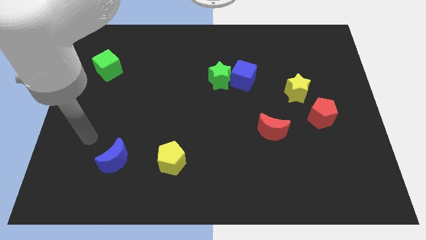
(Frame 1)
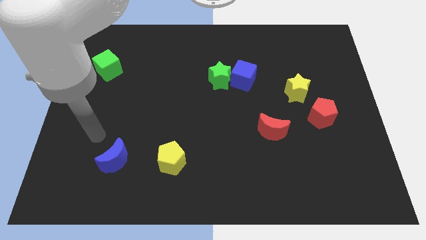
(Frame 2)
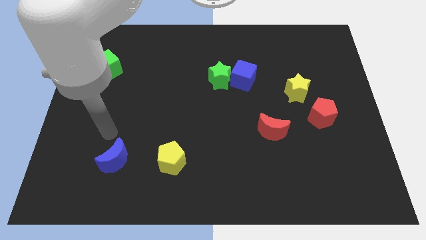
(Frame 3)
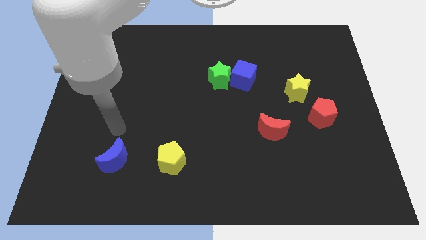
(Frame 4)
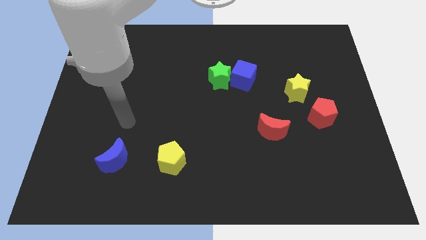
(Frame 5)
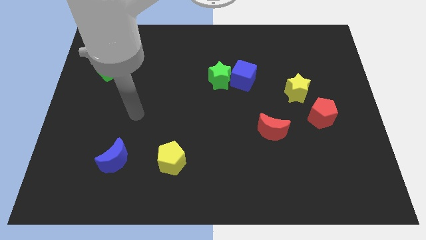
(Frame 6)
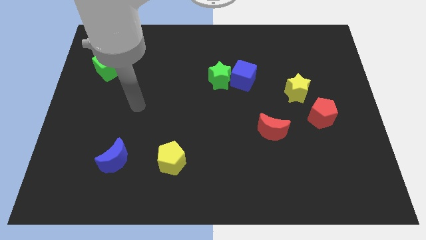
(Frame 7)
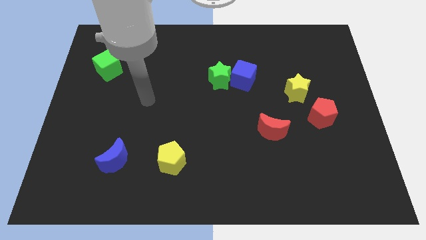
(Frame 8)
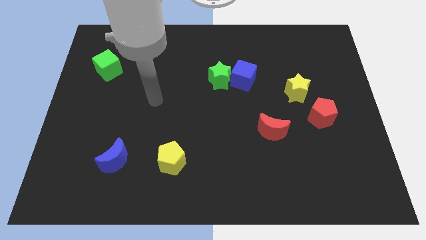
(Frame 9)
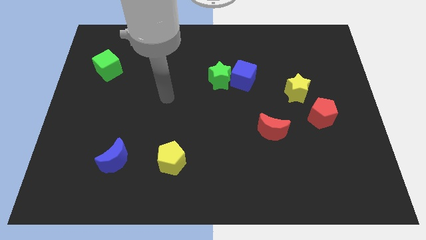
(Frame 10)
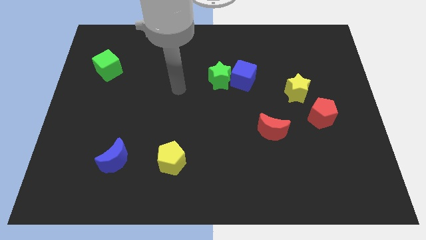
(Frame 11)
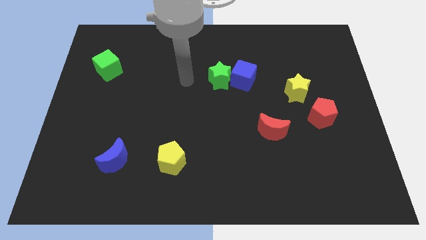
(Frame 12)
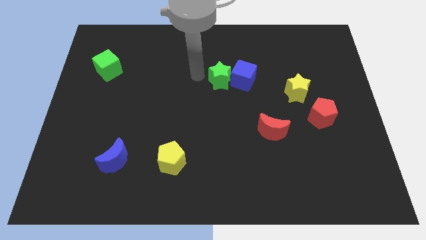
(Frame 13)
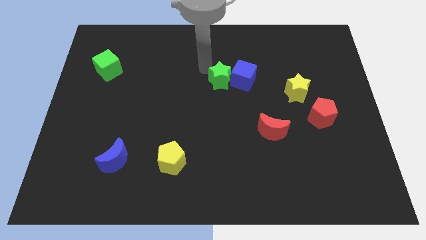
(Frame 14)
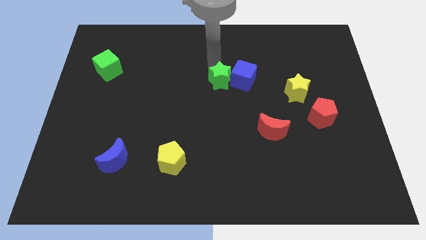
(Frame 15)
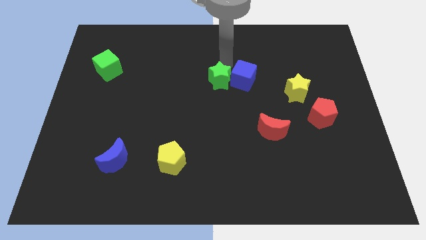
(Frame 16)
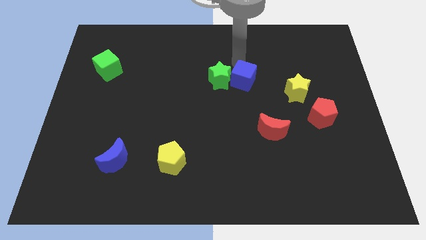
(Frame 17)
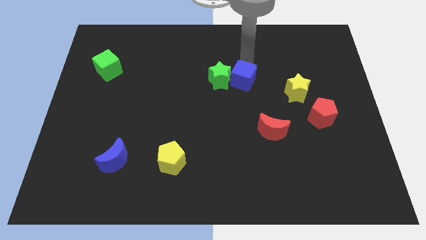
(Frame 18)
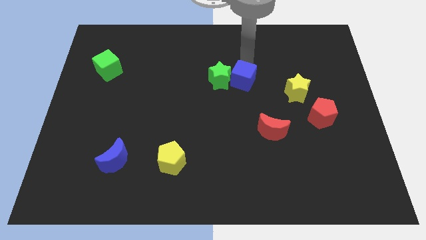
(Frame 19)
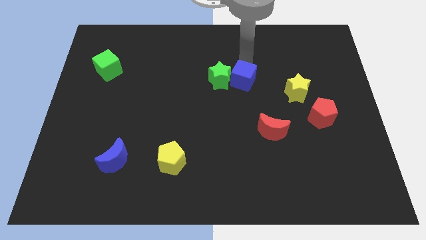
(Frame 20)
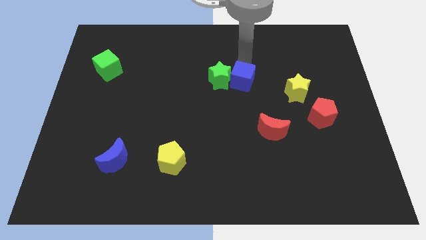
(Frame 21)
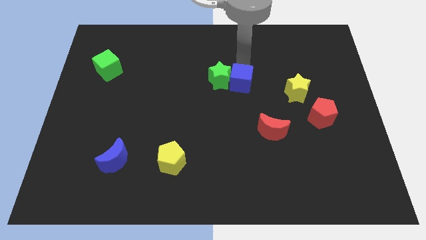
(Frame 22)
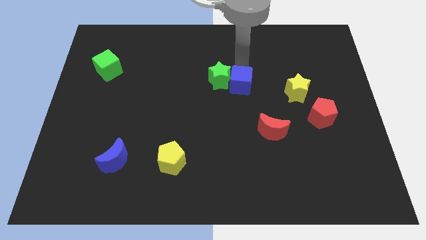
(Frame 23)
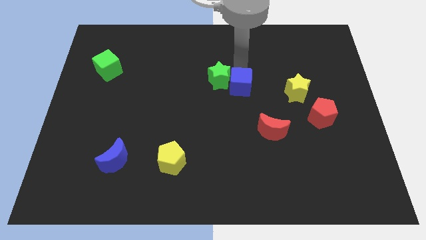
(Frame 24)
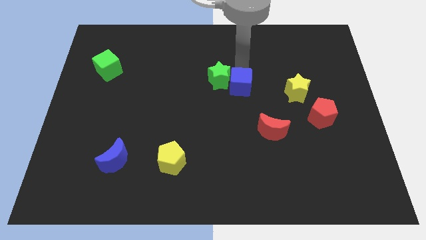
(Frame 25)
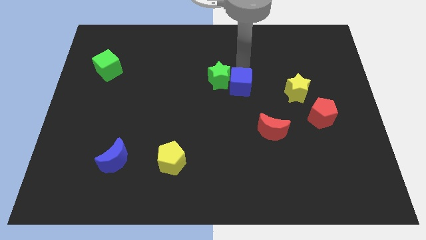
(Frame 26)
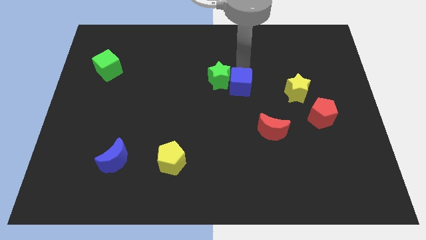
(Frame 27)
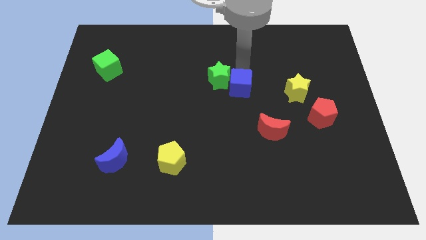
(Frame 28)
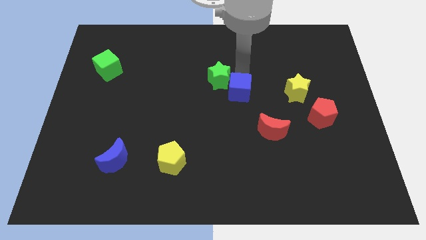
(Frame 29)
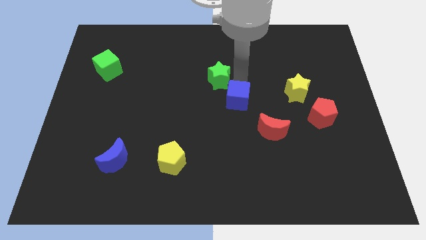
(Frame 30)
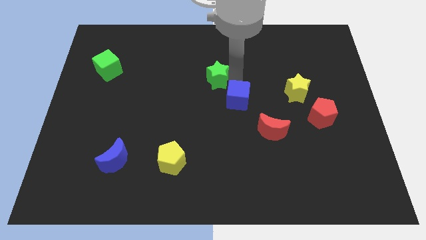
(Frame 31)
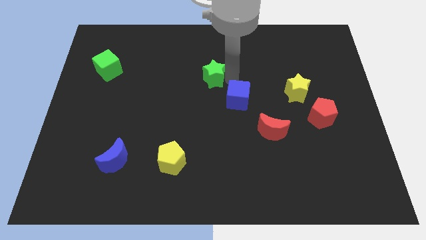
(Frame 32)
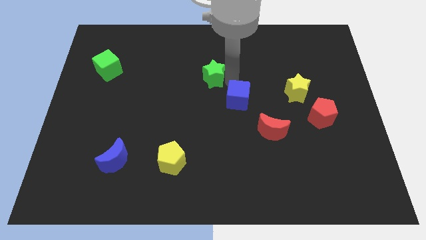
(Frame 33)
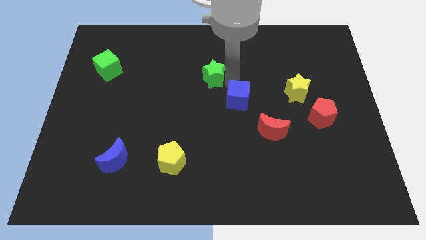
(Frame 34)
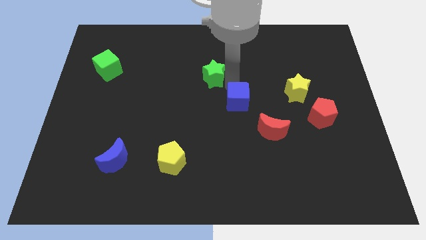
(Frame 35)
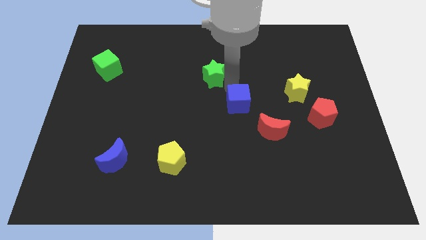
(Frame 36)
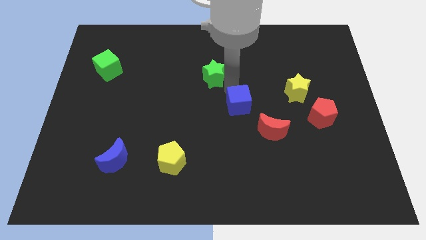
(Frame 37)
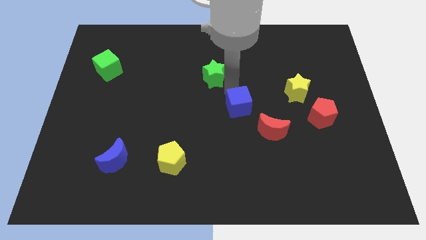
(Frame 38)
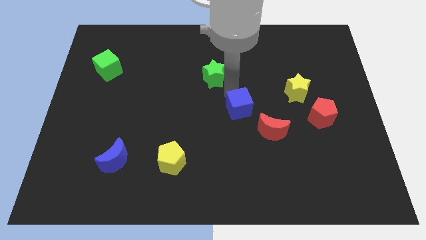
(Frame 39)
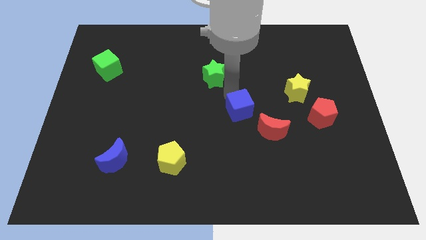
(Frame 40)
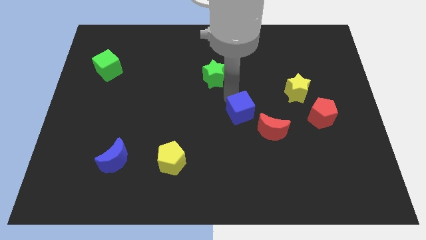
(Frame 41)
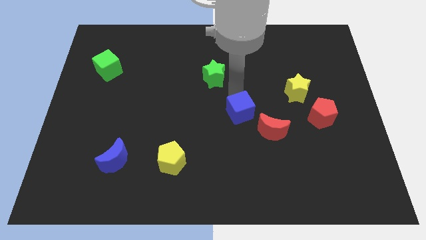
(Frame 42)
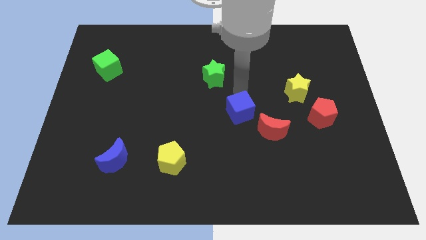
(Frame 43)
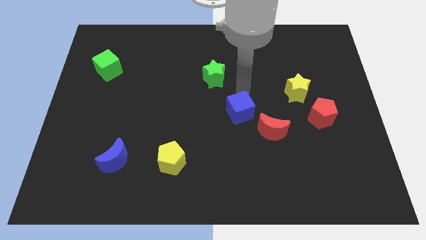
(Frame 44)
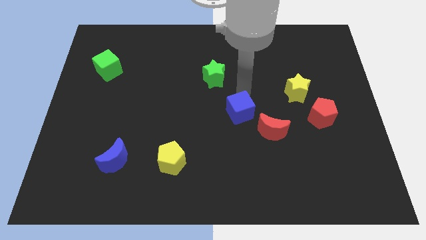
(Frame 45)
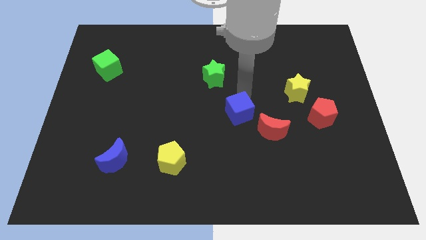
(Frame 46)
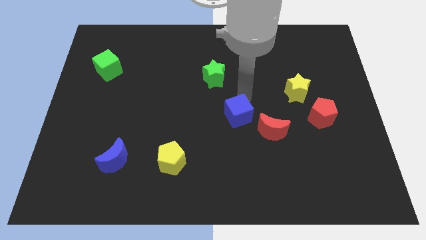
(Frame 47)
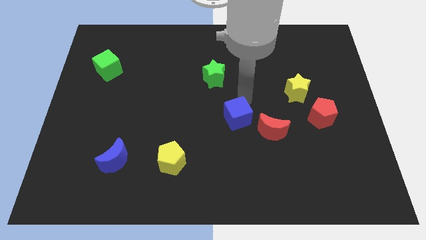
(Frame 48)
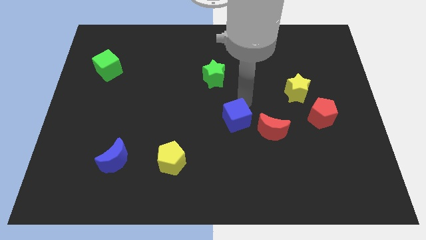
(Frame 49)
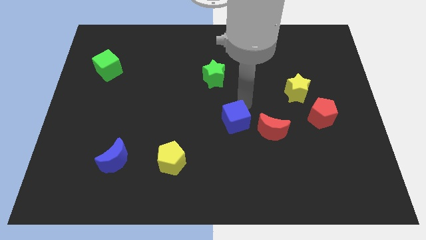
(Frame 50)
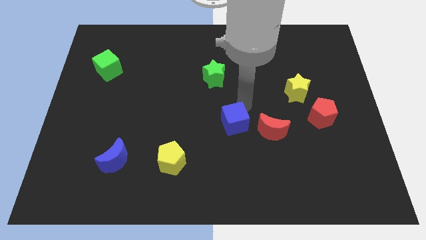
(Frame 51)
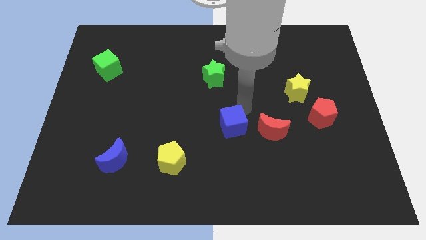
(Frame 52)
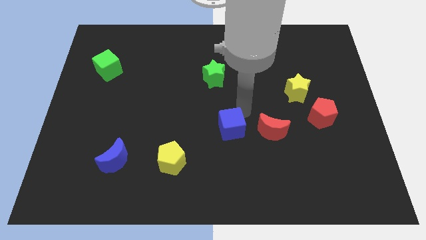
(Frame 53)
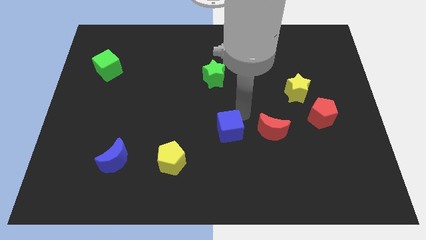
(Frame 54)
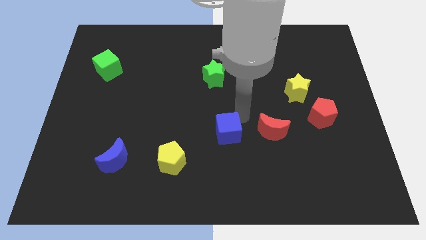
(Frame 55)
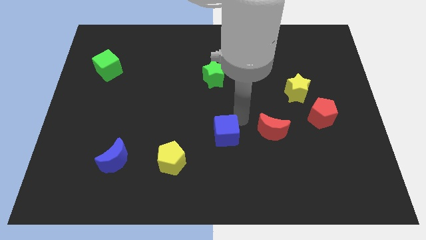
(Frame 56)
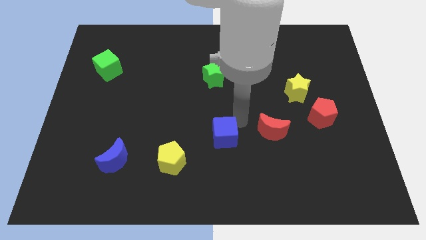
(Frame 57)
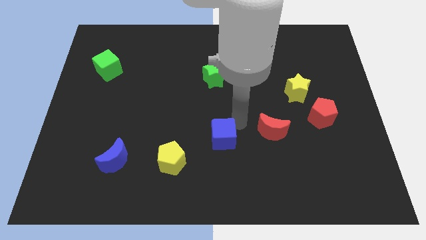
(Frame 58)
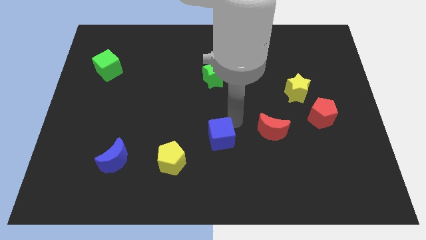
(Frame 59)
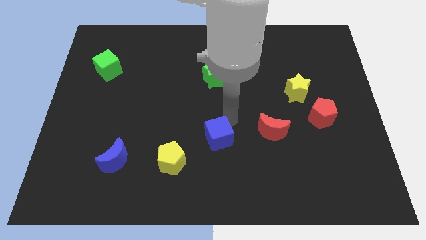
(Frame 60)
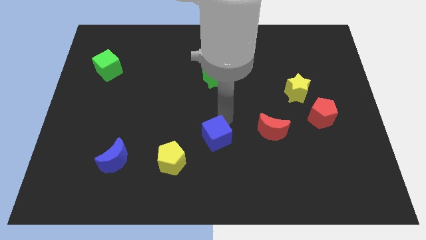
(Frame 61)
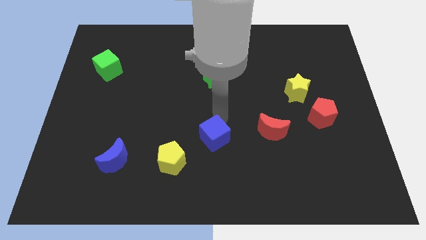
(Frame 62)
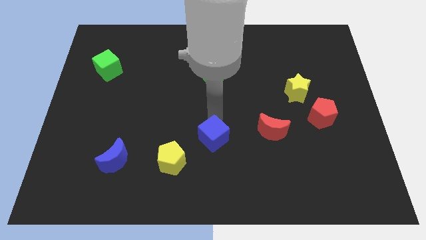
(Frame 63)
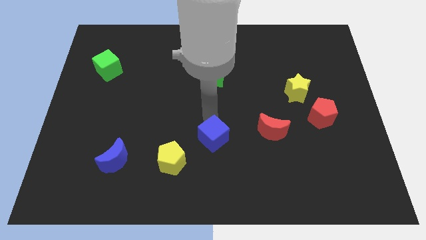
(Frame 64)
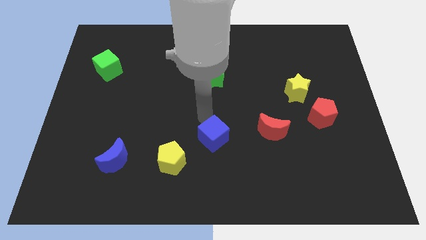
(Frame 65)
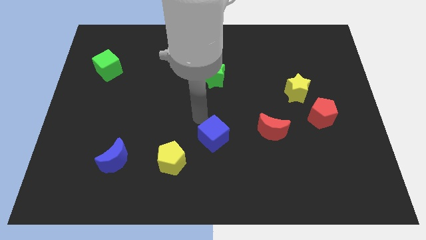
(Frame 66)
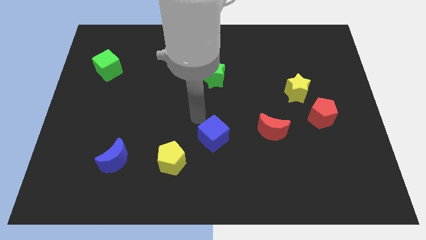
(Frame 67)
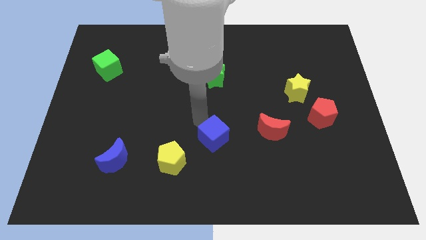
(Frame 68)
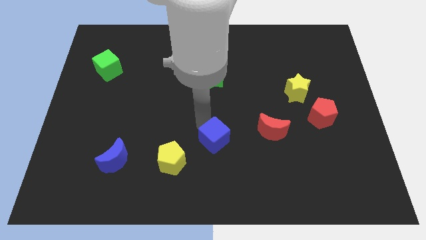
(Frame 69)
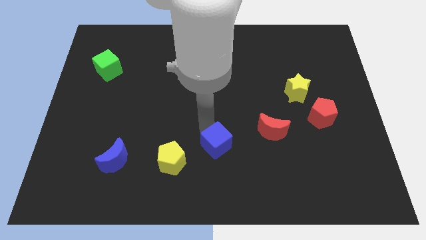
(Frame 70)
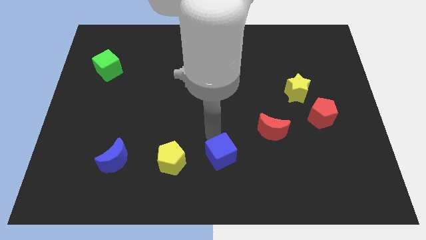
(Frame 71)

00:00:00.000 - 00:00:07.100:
put the blue cube to the bottom side
